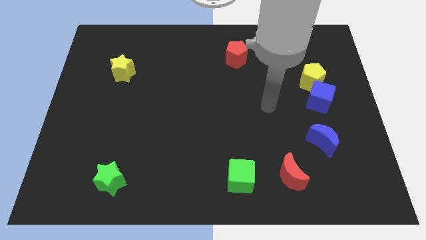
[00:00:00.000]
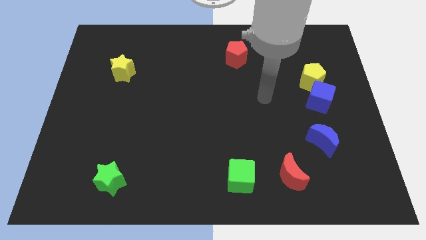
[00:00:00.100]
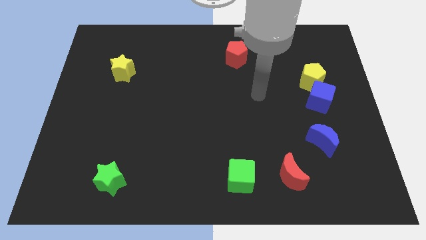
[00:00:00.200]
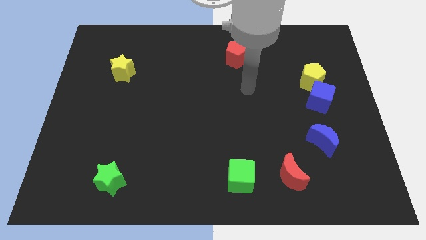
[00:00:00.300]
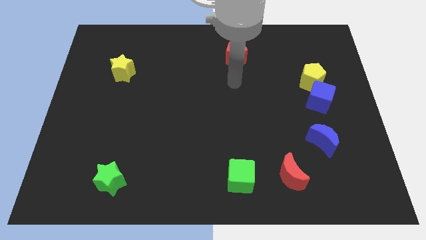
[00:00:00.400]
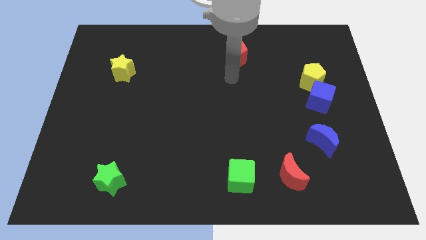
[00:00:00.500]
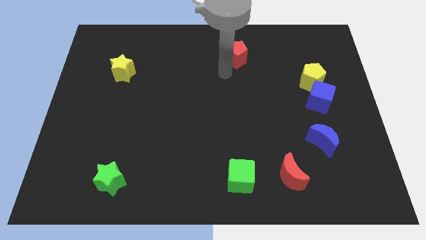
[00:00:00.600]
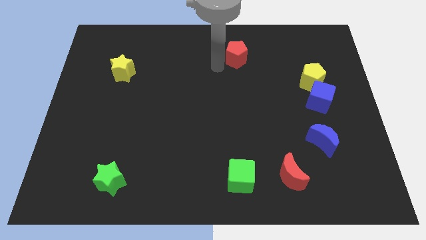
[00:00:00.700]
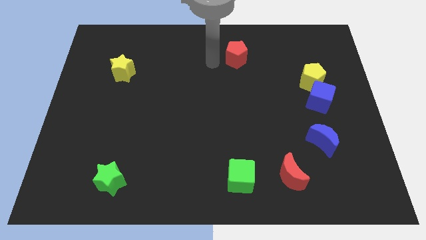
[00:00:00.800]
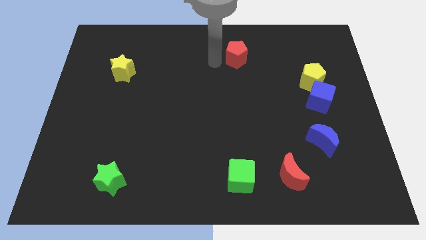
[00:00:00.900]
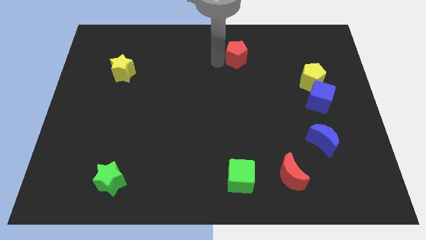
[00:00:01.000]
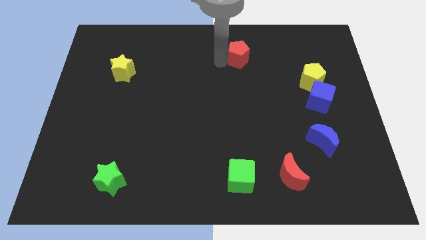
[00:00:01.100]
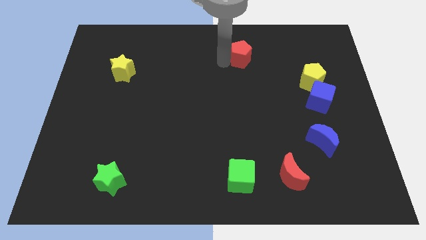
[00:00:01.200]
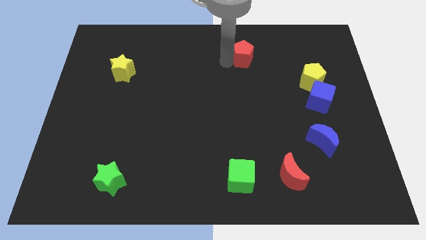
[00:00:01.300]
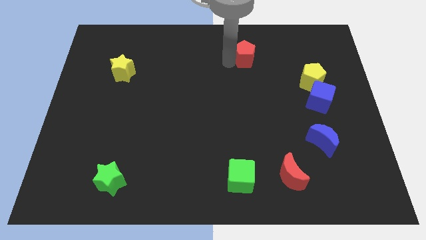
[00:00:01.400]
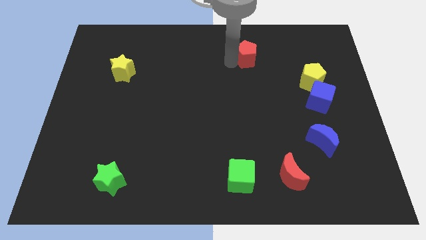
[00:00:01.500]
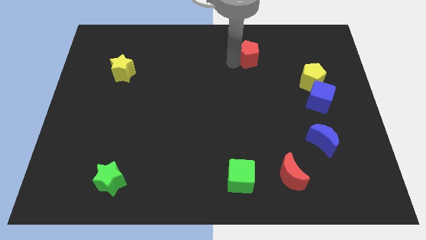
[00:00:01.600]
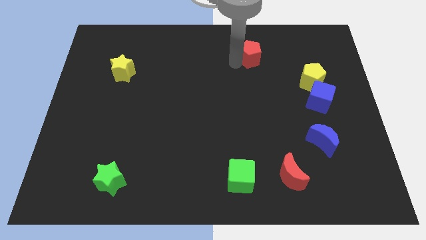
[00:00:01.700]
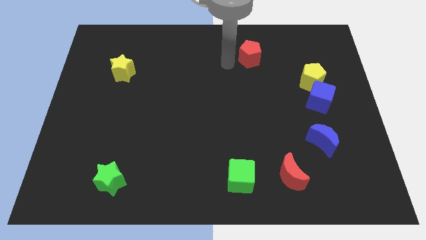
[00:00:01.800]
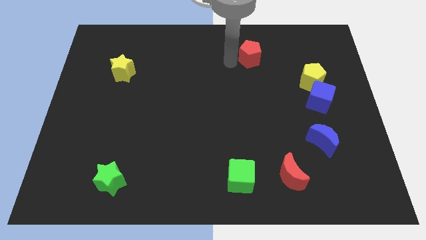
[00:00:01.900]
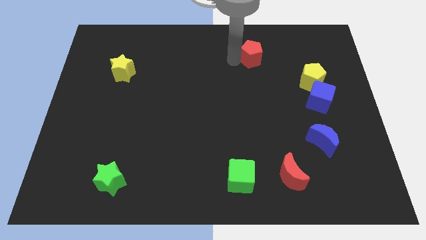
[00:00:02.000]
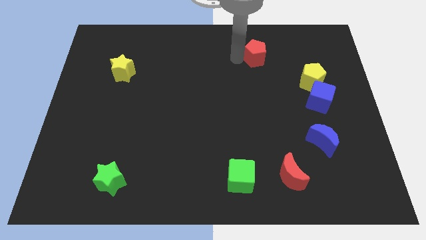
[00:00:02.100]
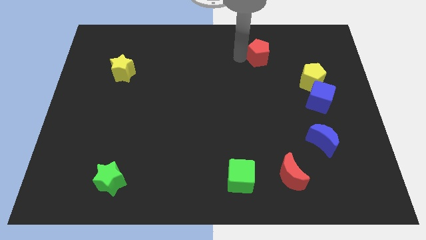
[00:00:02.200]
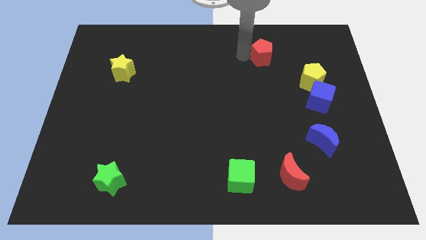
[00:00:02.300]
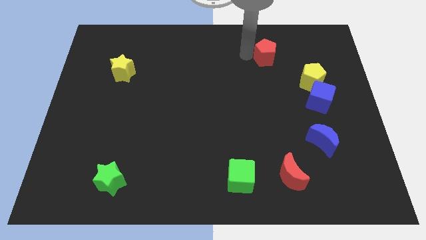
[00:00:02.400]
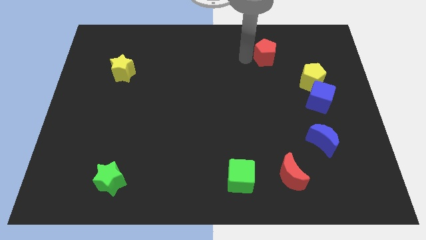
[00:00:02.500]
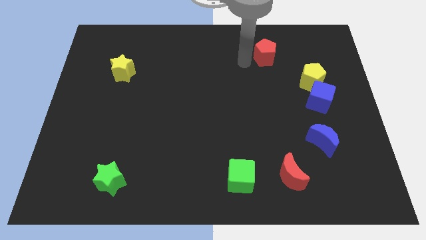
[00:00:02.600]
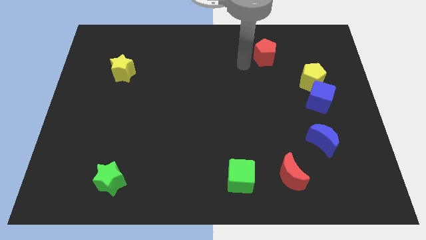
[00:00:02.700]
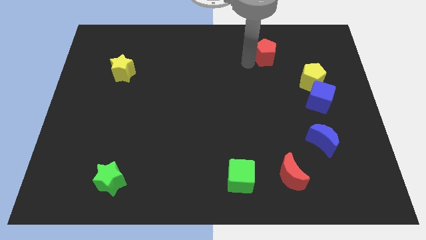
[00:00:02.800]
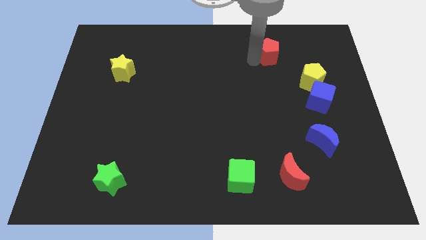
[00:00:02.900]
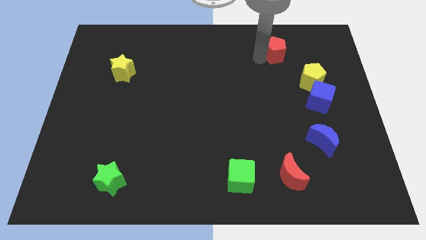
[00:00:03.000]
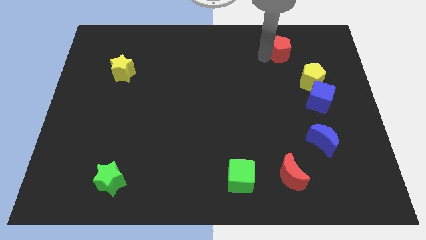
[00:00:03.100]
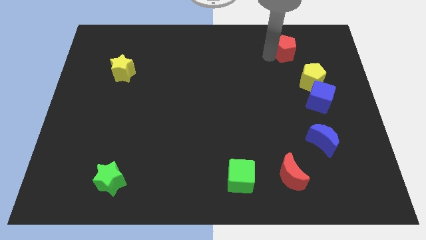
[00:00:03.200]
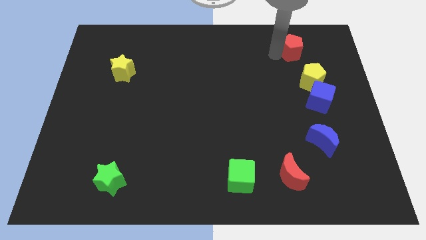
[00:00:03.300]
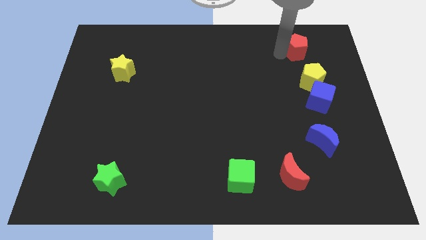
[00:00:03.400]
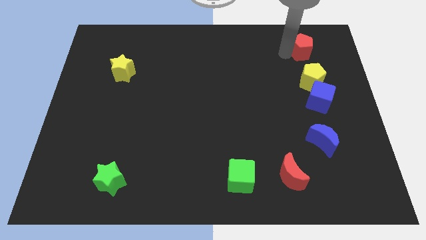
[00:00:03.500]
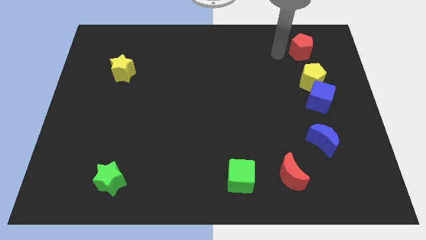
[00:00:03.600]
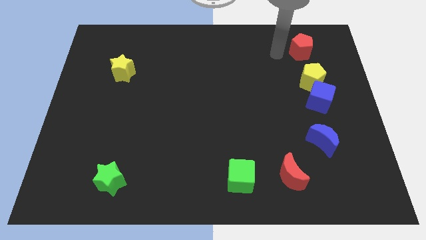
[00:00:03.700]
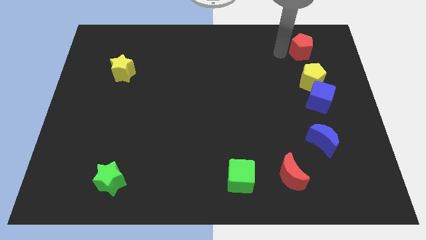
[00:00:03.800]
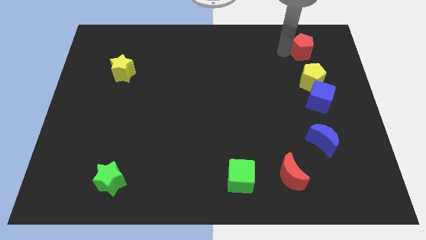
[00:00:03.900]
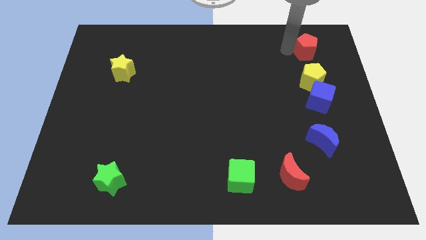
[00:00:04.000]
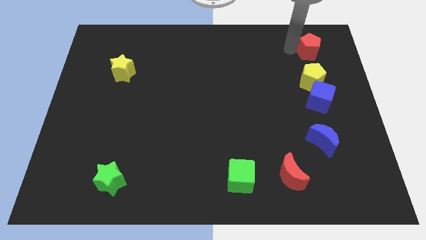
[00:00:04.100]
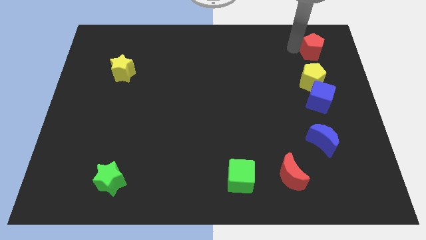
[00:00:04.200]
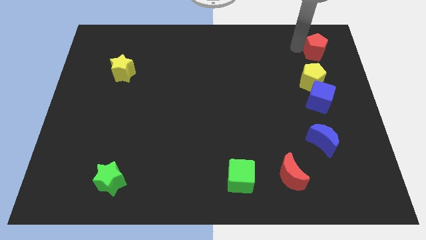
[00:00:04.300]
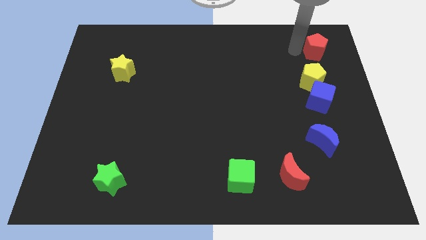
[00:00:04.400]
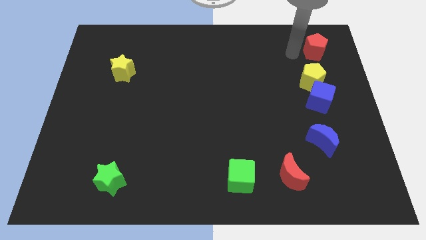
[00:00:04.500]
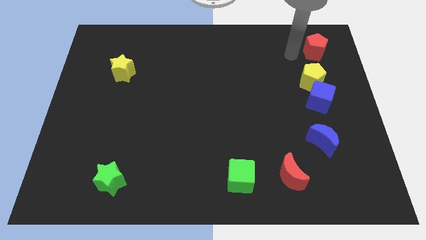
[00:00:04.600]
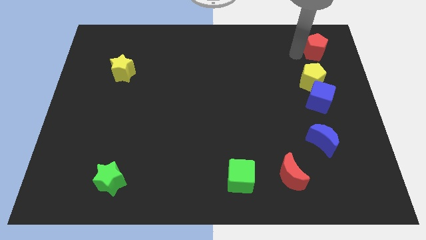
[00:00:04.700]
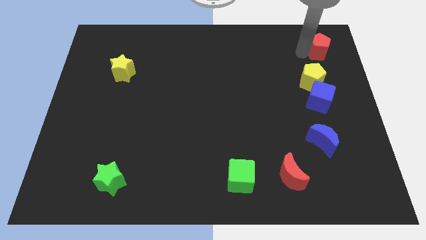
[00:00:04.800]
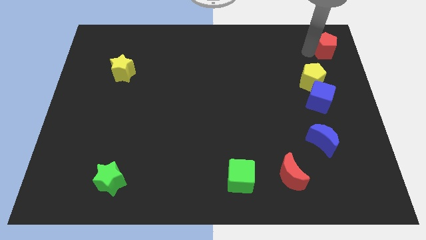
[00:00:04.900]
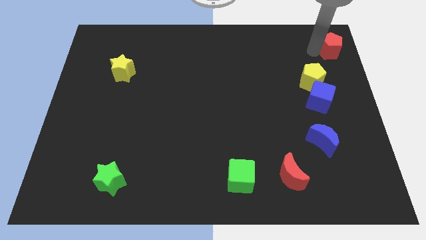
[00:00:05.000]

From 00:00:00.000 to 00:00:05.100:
push the red pentagon to the top right

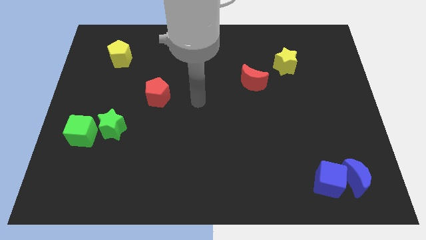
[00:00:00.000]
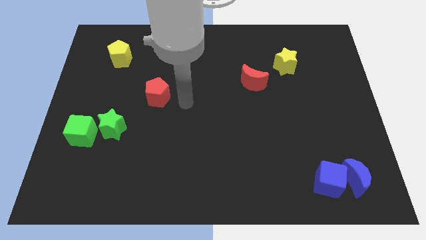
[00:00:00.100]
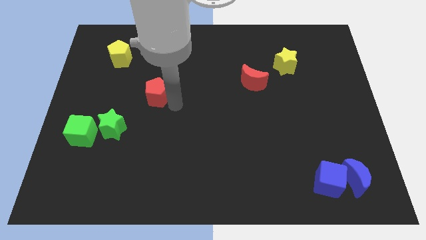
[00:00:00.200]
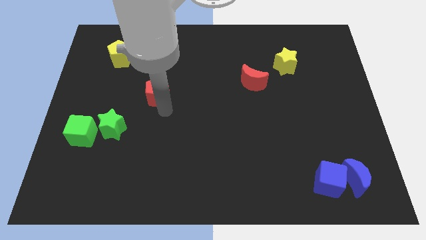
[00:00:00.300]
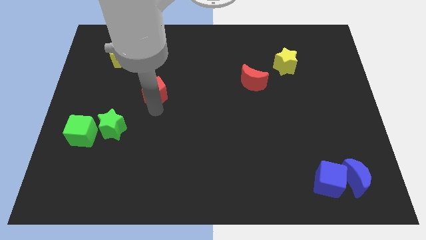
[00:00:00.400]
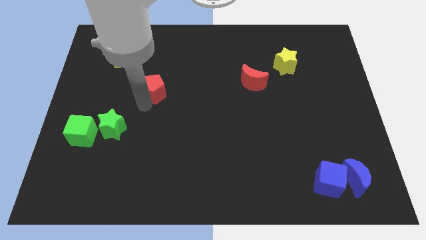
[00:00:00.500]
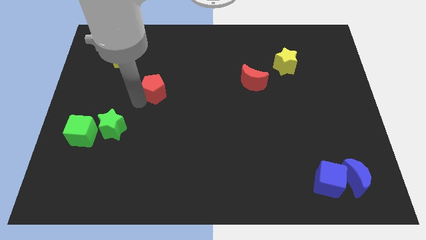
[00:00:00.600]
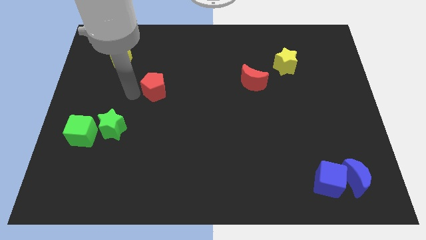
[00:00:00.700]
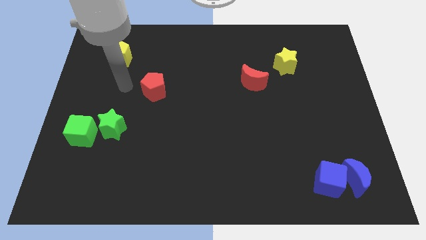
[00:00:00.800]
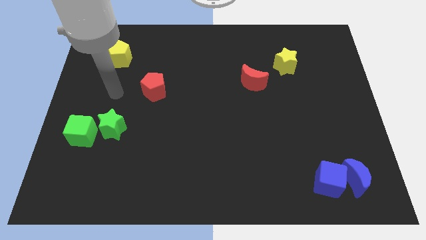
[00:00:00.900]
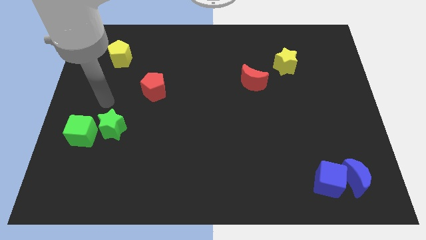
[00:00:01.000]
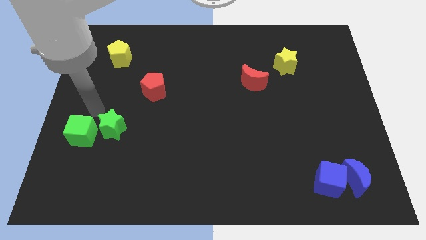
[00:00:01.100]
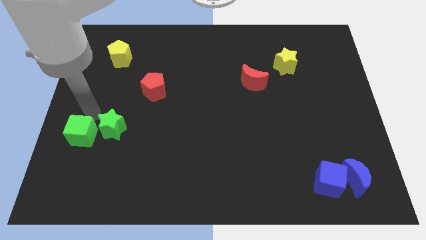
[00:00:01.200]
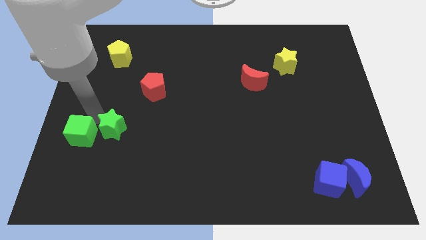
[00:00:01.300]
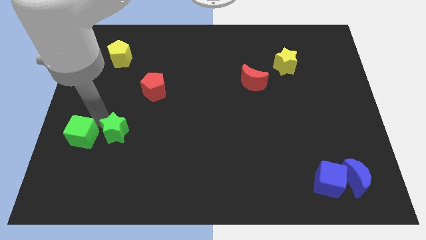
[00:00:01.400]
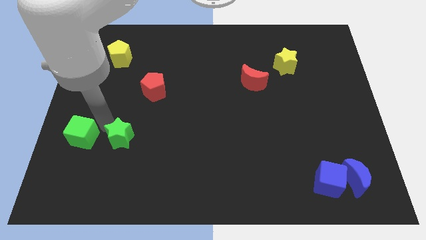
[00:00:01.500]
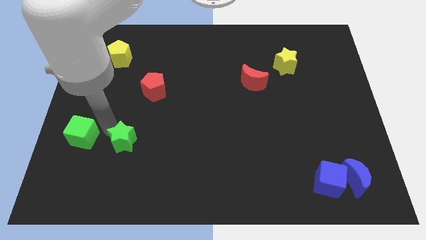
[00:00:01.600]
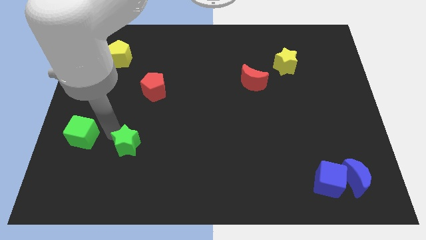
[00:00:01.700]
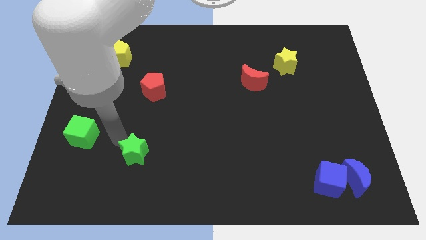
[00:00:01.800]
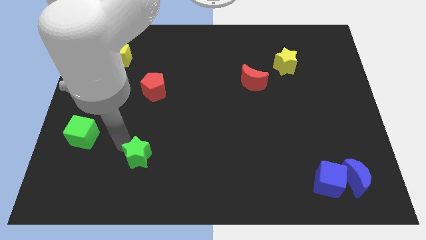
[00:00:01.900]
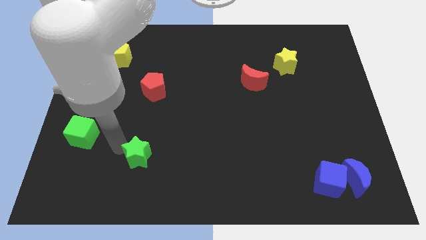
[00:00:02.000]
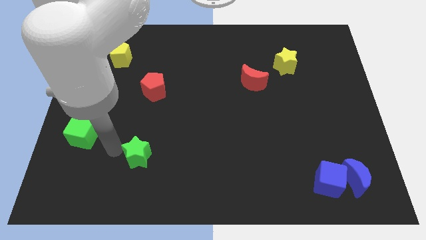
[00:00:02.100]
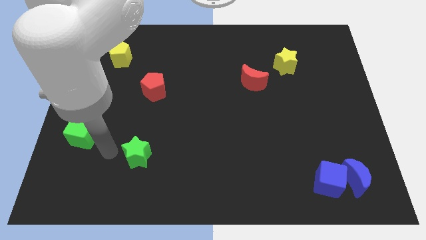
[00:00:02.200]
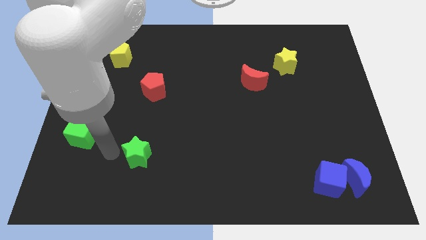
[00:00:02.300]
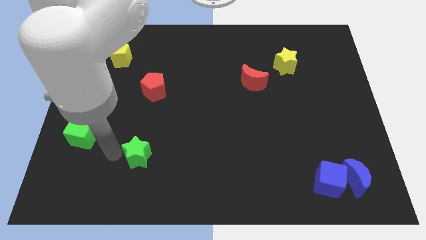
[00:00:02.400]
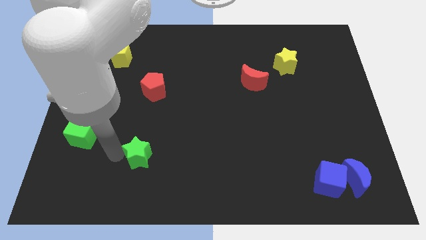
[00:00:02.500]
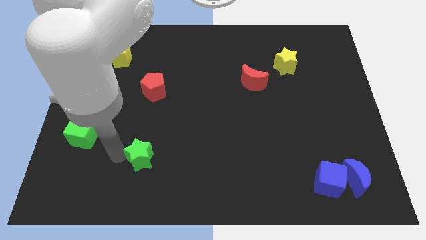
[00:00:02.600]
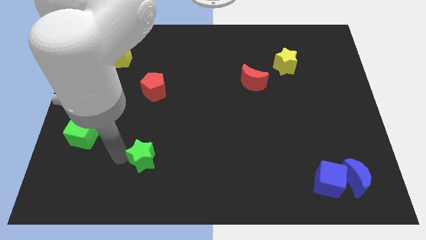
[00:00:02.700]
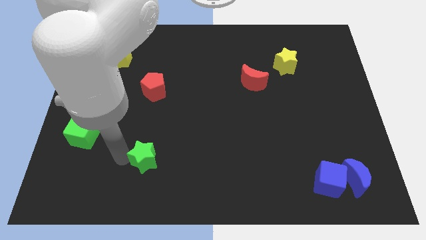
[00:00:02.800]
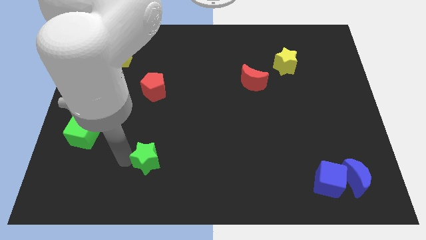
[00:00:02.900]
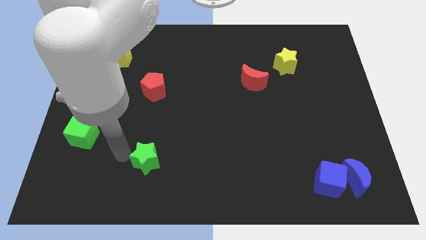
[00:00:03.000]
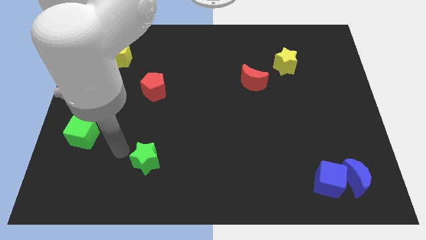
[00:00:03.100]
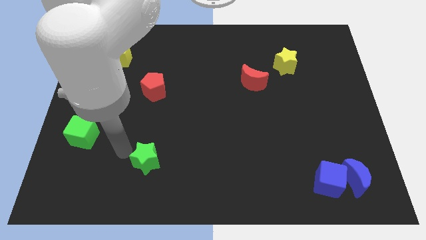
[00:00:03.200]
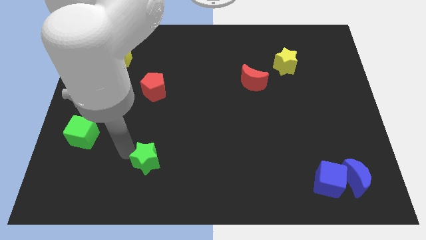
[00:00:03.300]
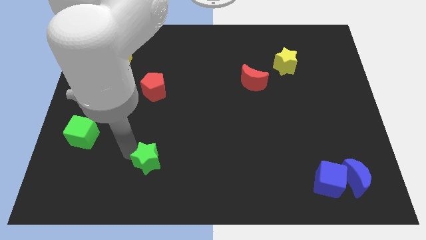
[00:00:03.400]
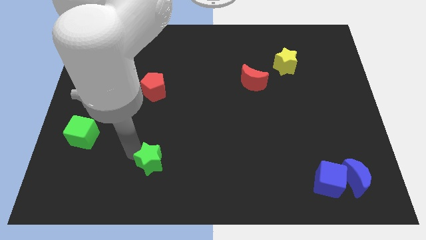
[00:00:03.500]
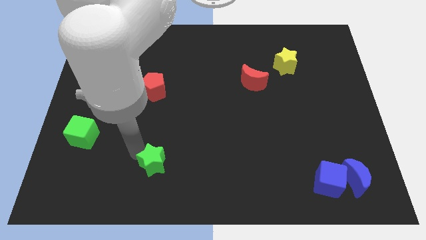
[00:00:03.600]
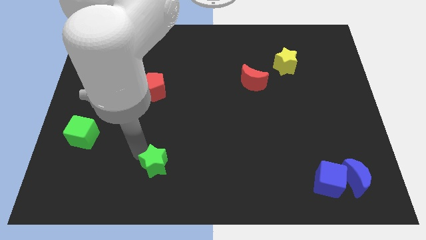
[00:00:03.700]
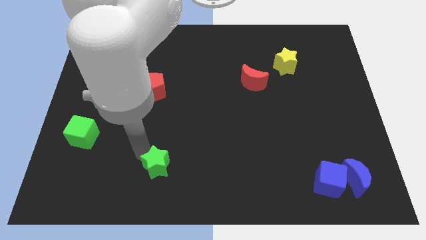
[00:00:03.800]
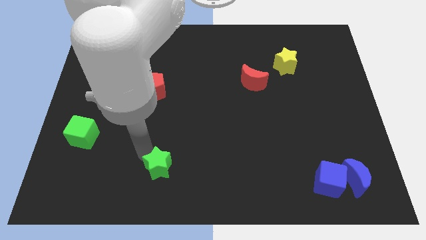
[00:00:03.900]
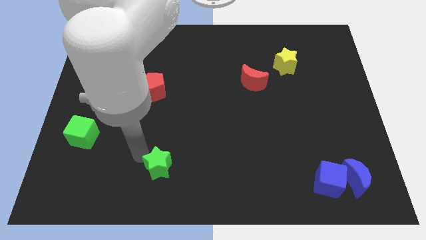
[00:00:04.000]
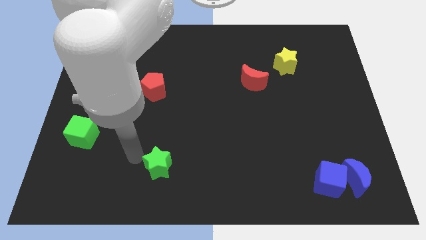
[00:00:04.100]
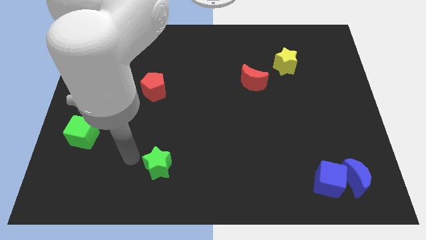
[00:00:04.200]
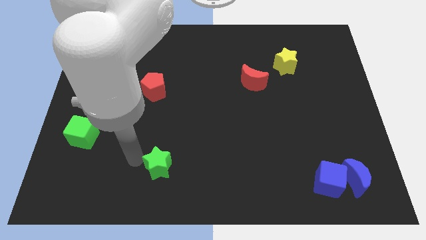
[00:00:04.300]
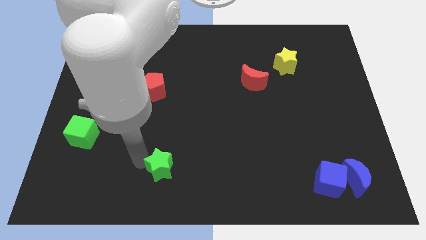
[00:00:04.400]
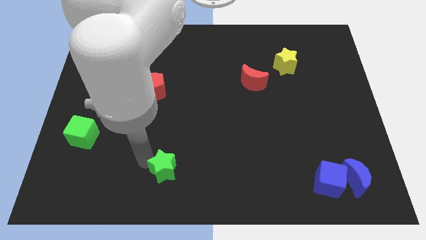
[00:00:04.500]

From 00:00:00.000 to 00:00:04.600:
slide the green star to the bottom side
